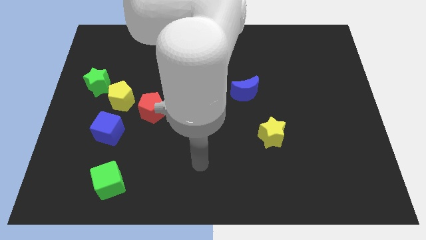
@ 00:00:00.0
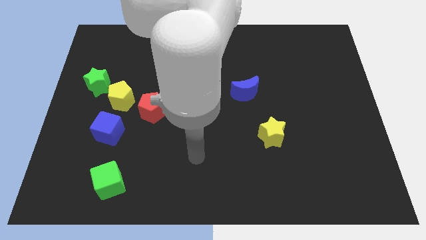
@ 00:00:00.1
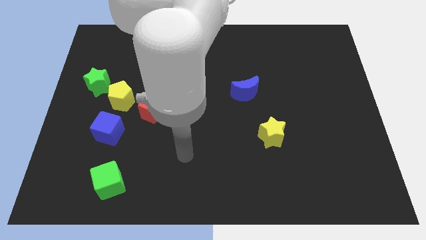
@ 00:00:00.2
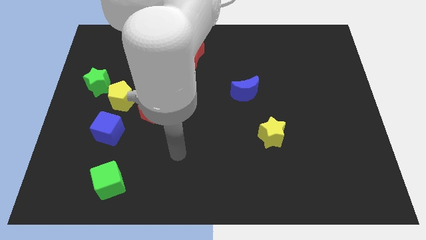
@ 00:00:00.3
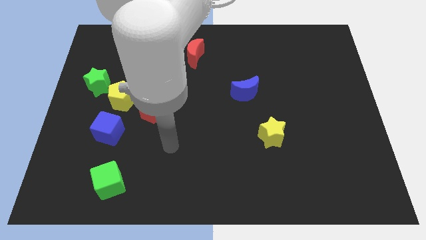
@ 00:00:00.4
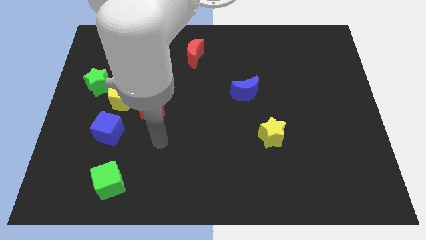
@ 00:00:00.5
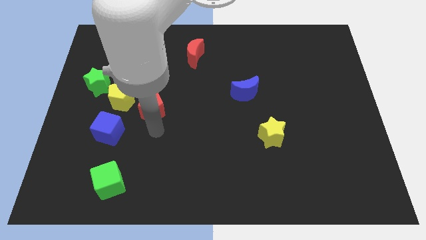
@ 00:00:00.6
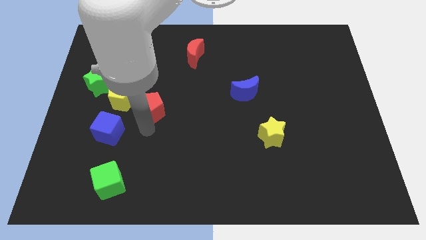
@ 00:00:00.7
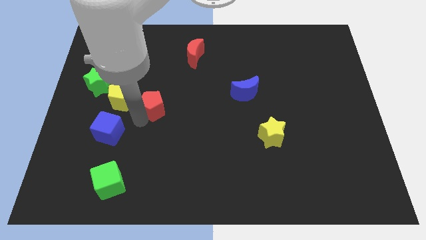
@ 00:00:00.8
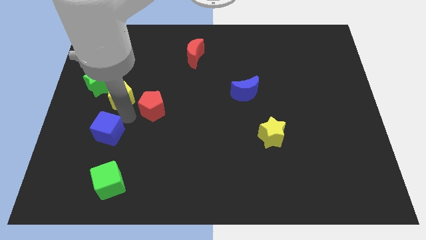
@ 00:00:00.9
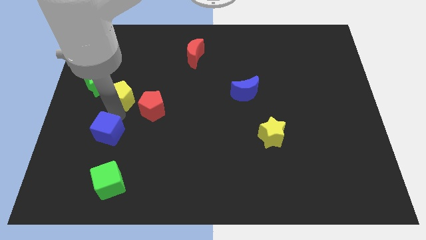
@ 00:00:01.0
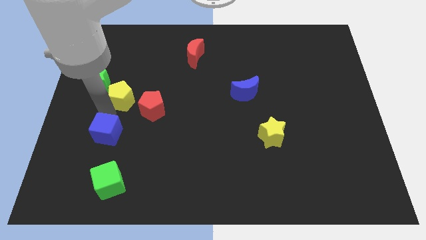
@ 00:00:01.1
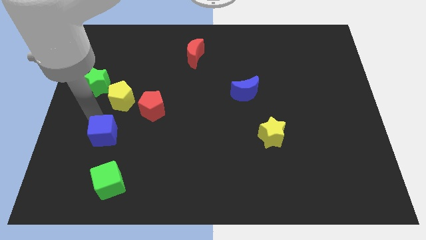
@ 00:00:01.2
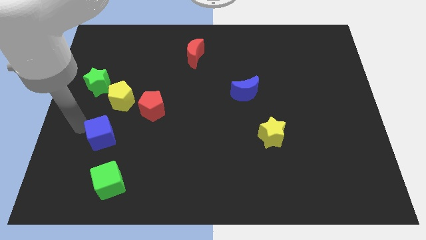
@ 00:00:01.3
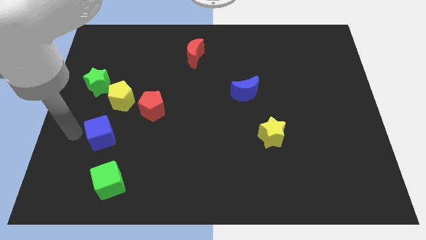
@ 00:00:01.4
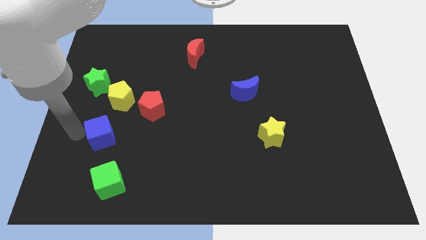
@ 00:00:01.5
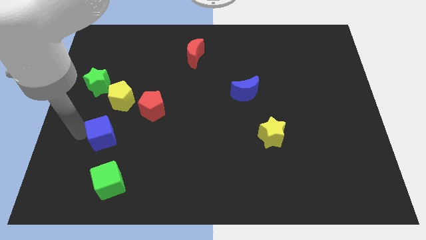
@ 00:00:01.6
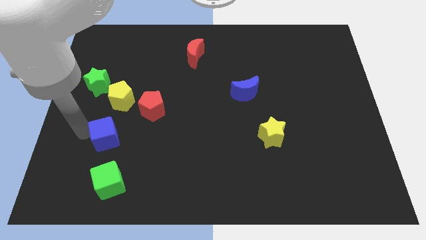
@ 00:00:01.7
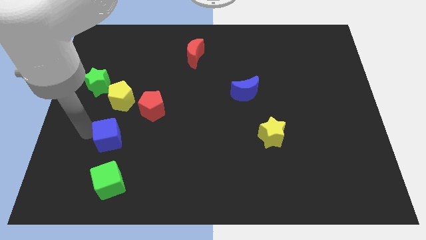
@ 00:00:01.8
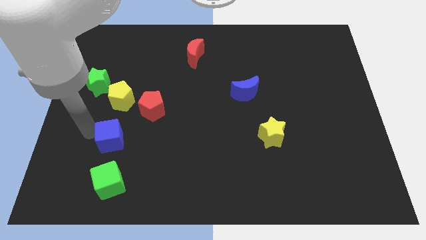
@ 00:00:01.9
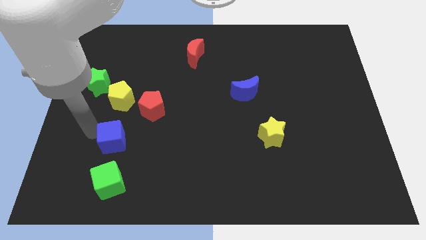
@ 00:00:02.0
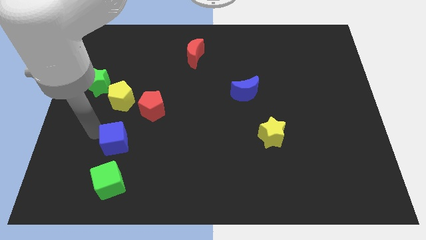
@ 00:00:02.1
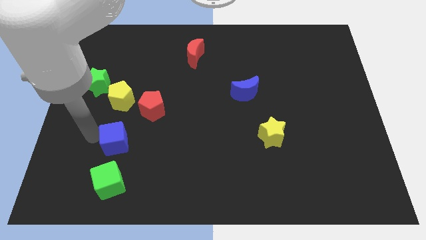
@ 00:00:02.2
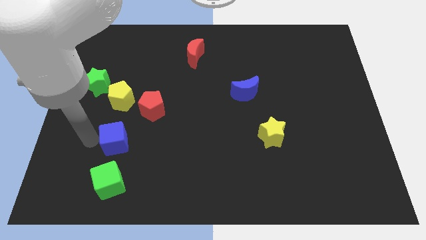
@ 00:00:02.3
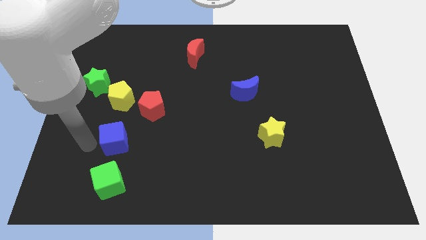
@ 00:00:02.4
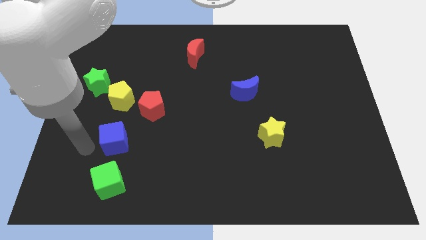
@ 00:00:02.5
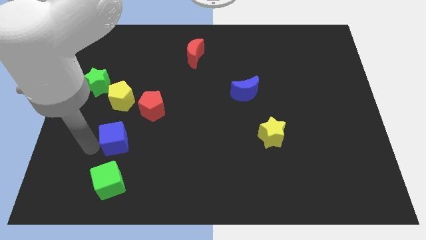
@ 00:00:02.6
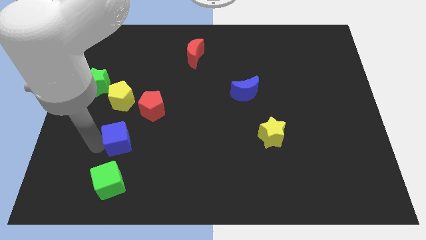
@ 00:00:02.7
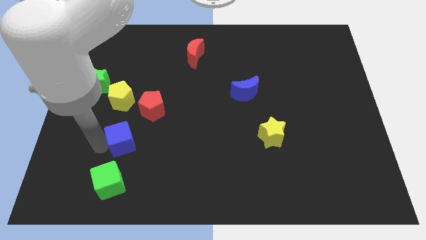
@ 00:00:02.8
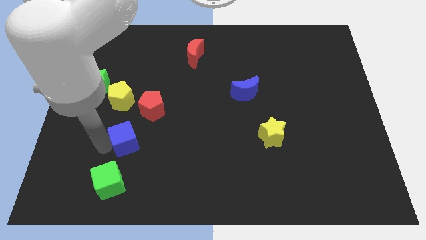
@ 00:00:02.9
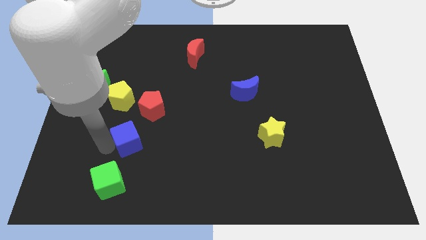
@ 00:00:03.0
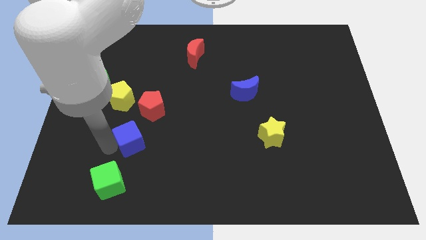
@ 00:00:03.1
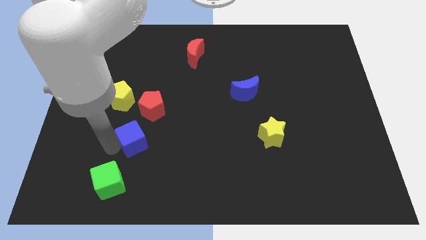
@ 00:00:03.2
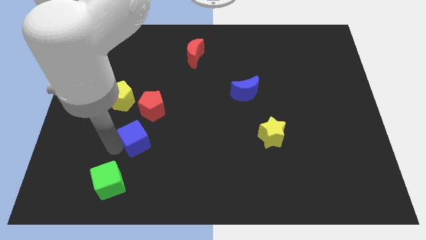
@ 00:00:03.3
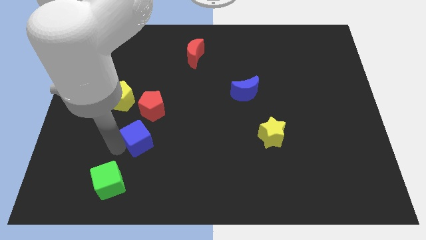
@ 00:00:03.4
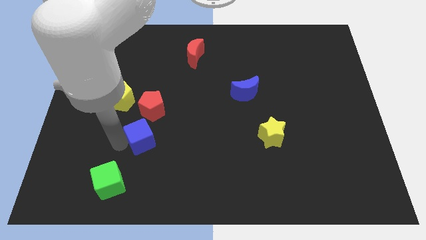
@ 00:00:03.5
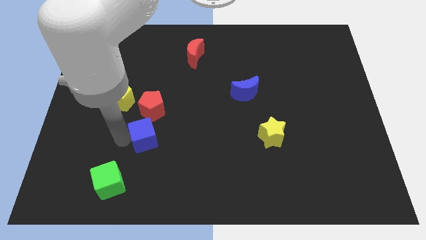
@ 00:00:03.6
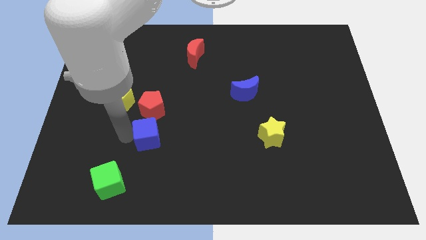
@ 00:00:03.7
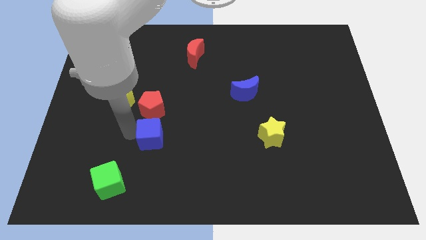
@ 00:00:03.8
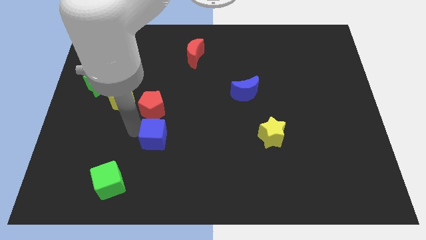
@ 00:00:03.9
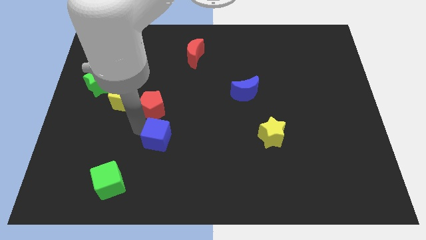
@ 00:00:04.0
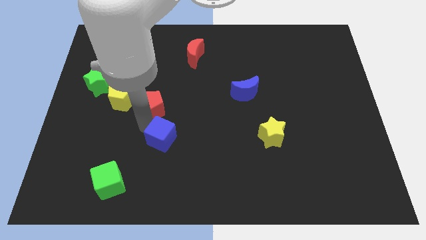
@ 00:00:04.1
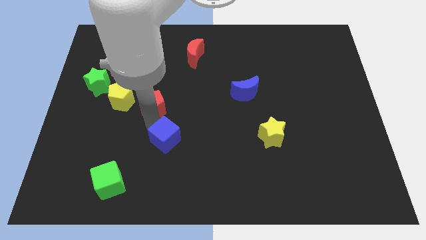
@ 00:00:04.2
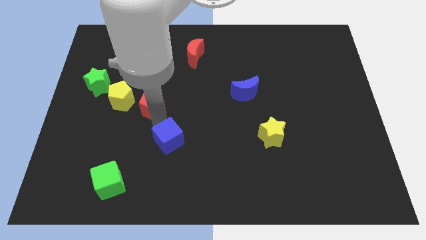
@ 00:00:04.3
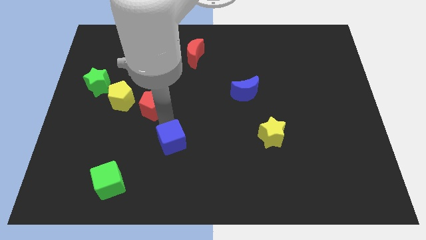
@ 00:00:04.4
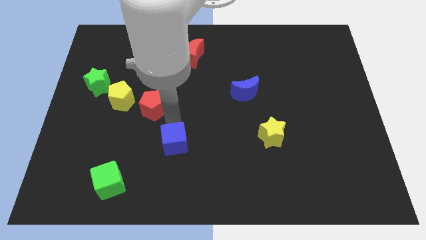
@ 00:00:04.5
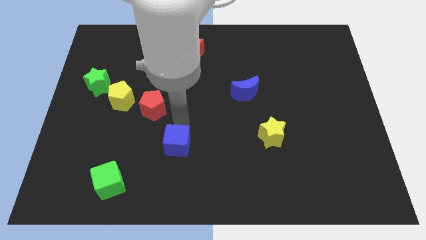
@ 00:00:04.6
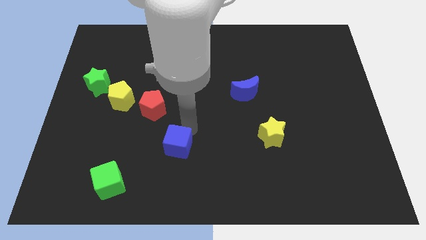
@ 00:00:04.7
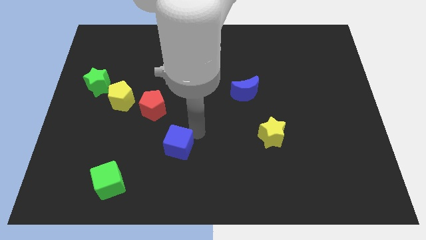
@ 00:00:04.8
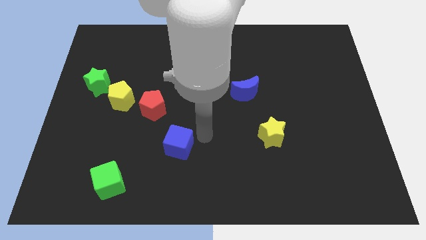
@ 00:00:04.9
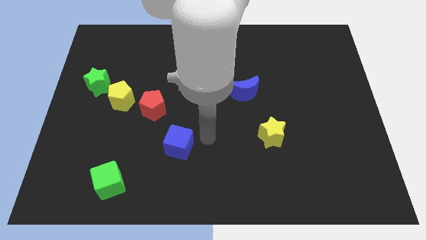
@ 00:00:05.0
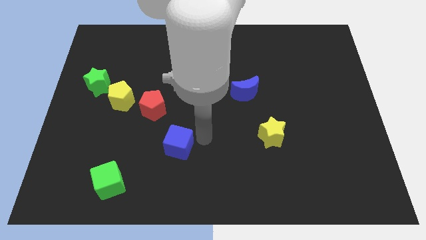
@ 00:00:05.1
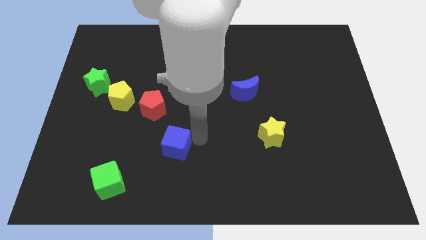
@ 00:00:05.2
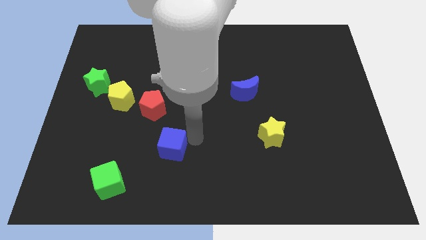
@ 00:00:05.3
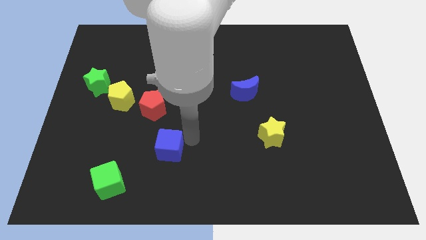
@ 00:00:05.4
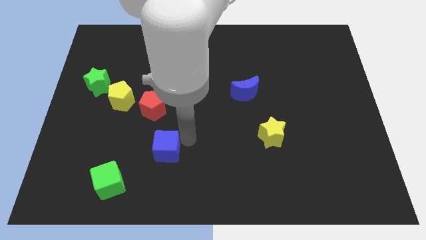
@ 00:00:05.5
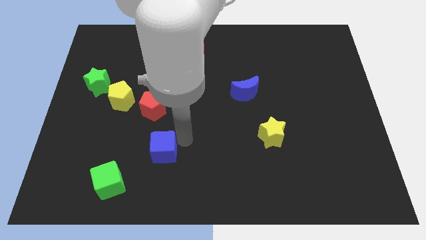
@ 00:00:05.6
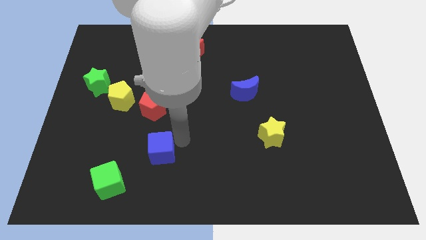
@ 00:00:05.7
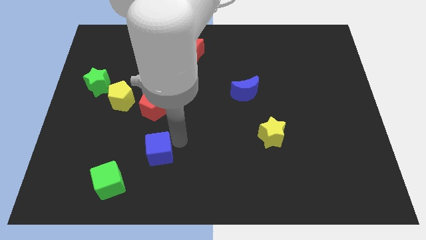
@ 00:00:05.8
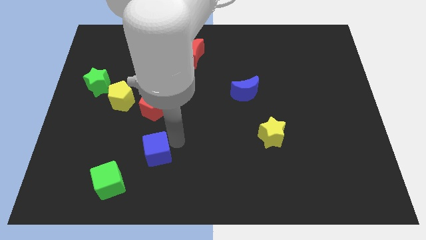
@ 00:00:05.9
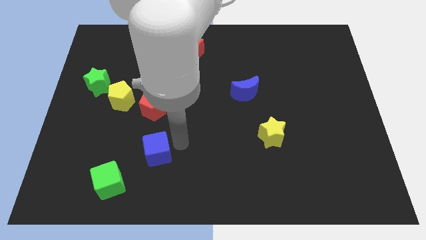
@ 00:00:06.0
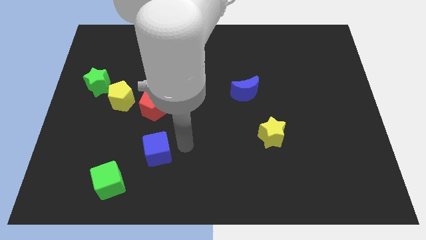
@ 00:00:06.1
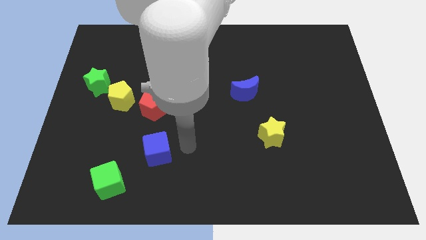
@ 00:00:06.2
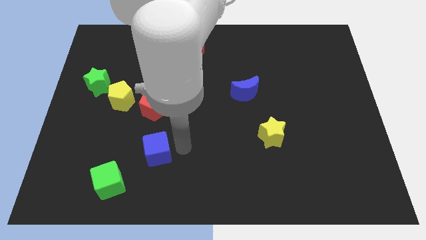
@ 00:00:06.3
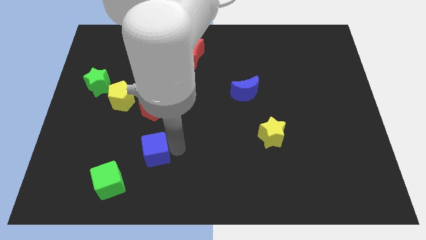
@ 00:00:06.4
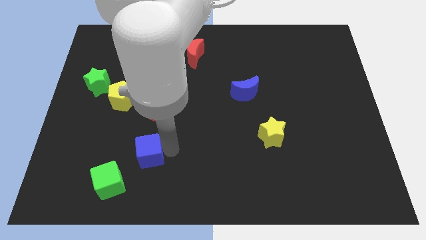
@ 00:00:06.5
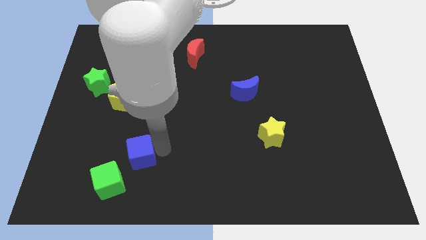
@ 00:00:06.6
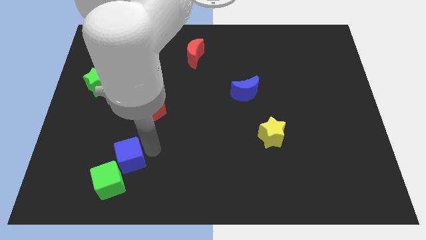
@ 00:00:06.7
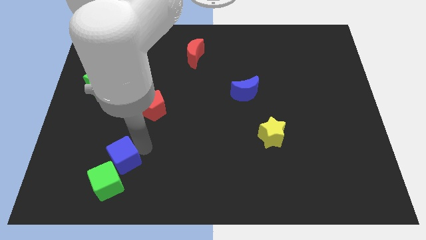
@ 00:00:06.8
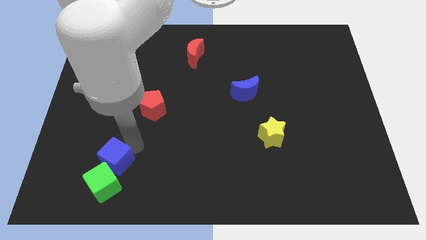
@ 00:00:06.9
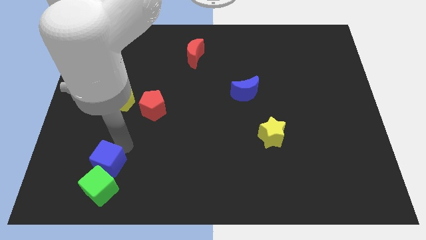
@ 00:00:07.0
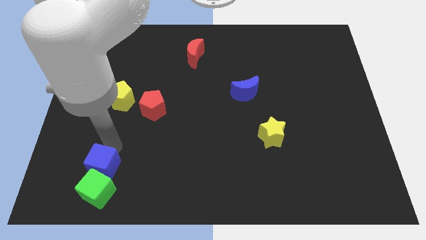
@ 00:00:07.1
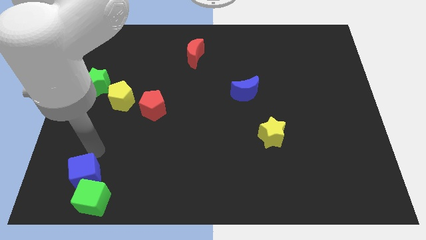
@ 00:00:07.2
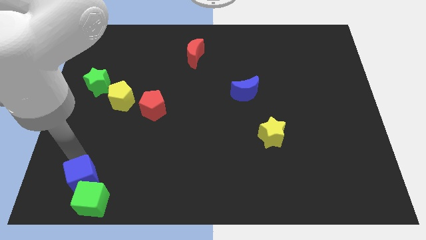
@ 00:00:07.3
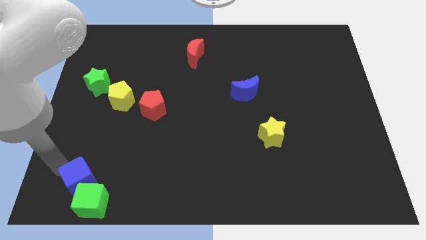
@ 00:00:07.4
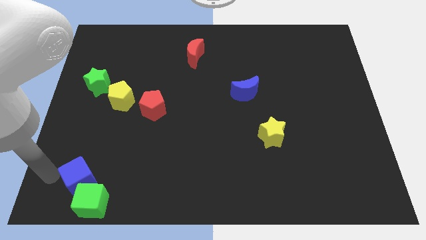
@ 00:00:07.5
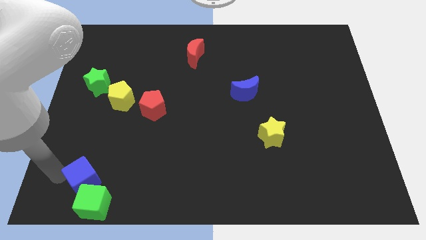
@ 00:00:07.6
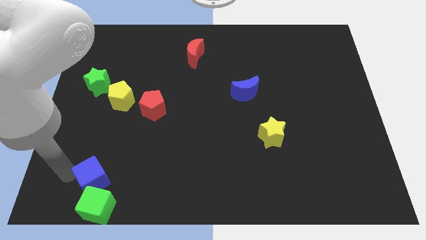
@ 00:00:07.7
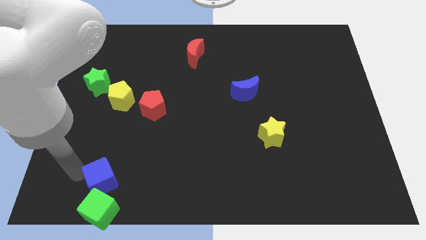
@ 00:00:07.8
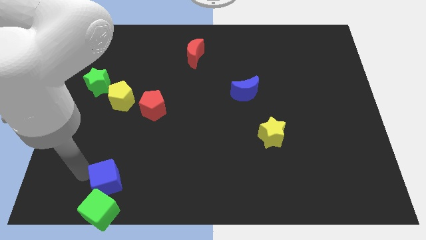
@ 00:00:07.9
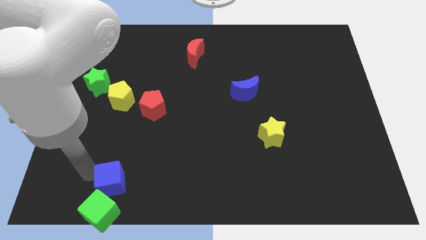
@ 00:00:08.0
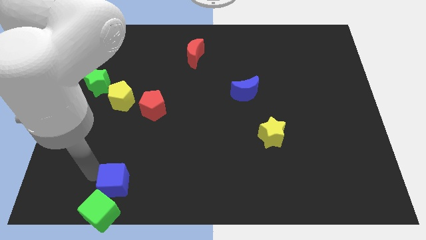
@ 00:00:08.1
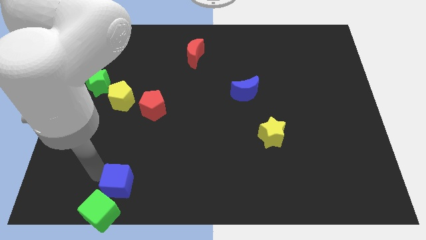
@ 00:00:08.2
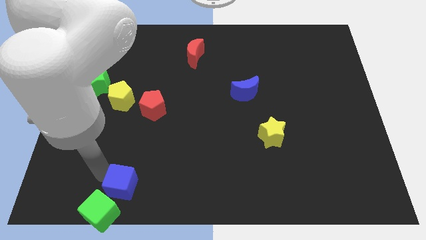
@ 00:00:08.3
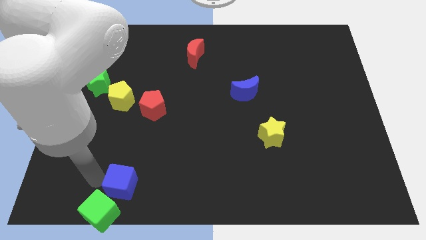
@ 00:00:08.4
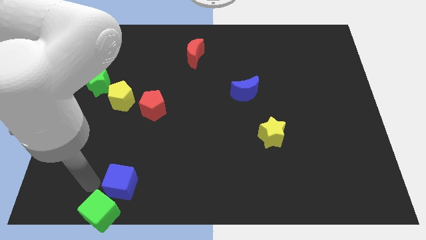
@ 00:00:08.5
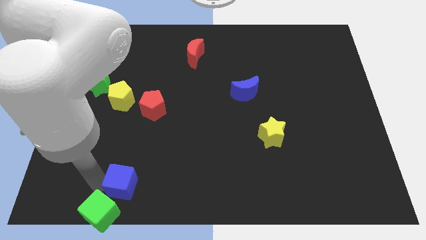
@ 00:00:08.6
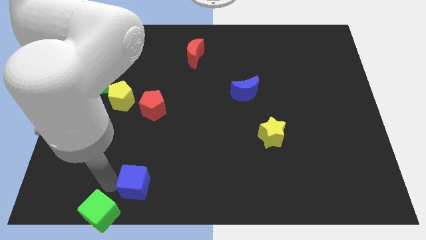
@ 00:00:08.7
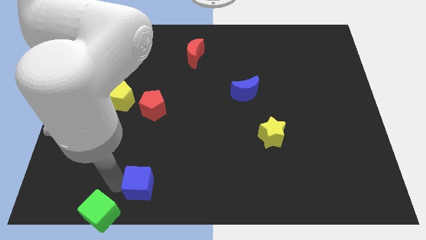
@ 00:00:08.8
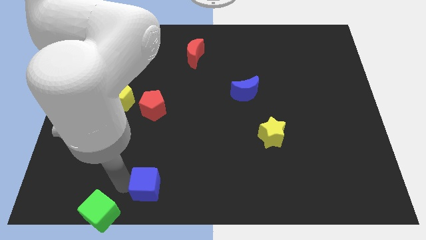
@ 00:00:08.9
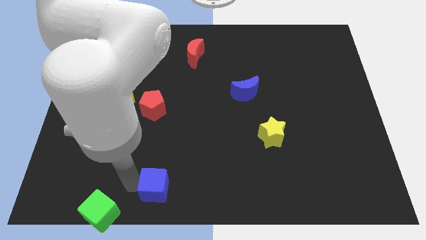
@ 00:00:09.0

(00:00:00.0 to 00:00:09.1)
slide the blue cube to the bottom side
